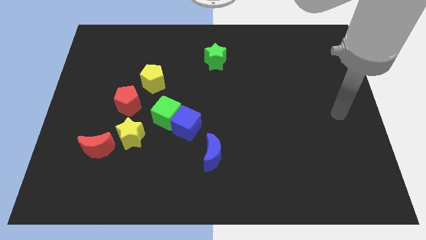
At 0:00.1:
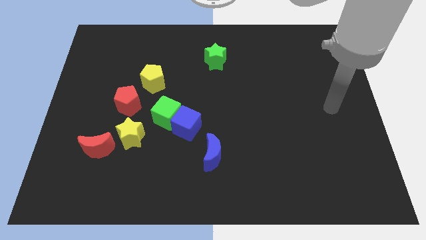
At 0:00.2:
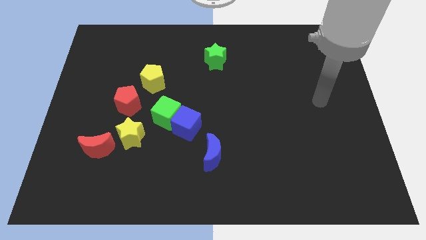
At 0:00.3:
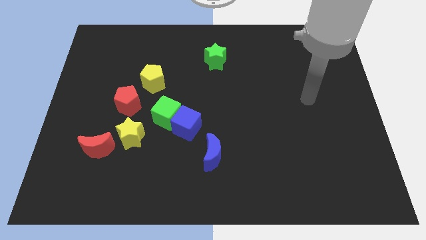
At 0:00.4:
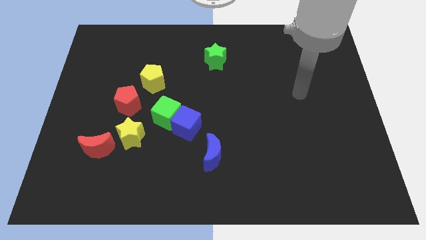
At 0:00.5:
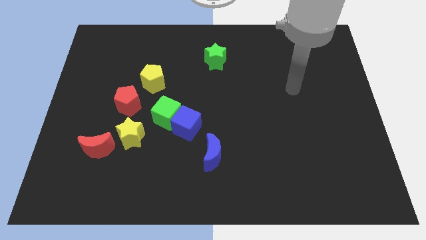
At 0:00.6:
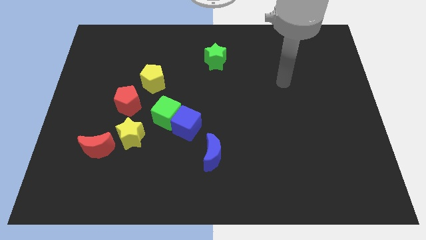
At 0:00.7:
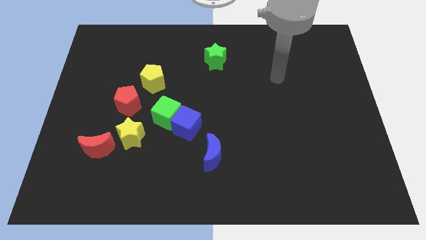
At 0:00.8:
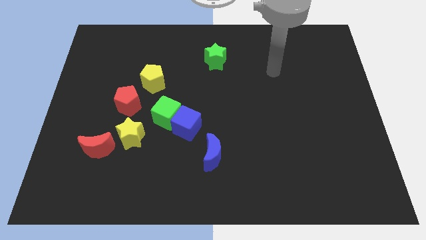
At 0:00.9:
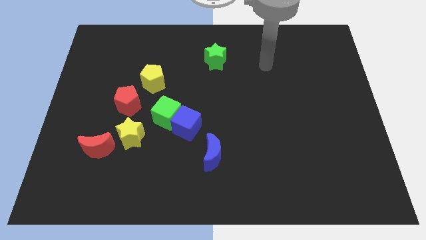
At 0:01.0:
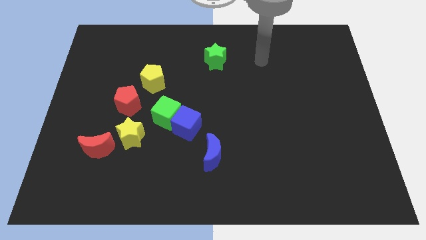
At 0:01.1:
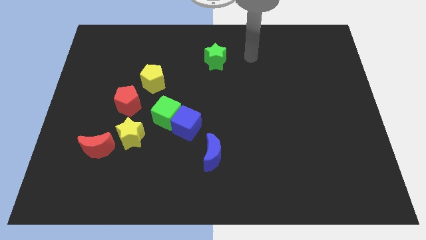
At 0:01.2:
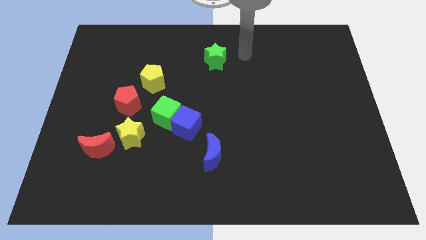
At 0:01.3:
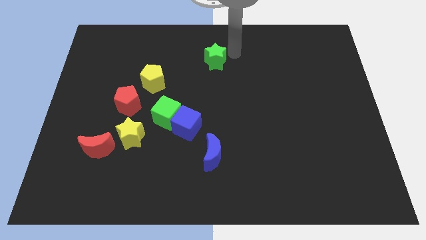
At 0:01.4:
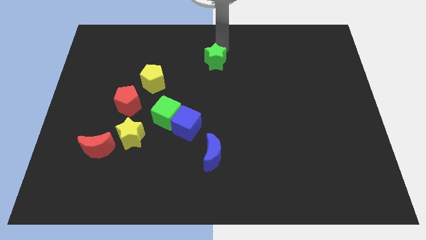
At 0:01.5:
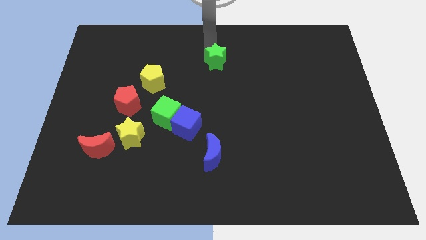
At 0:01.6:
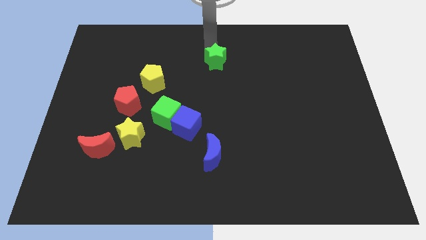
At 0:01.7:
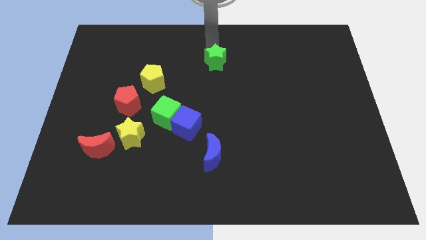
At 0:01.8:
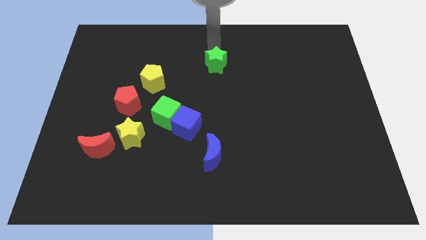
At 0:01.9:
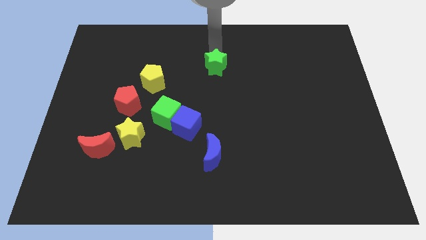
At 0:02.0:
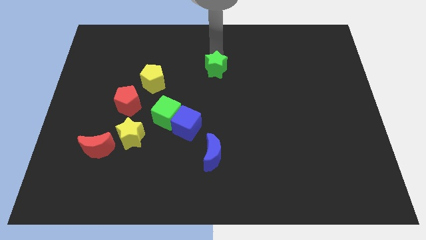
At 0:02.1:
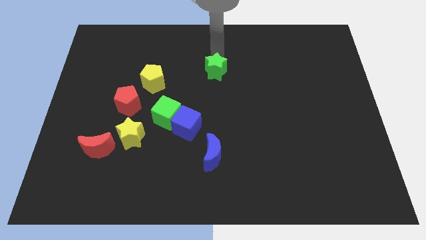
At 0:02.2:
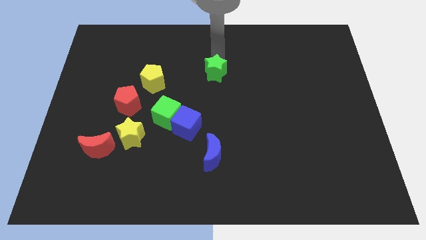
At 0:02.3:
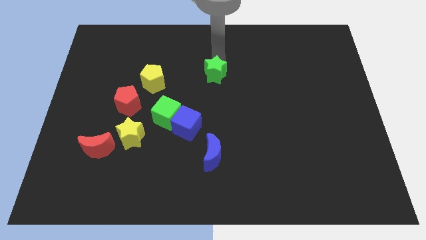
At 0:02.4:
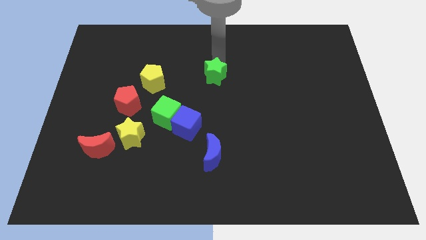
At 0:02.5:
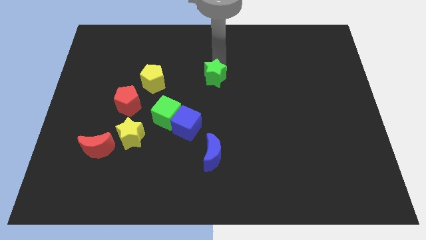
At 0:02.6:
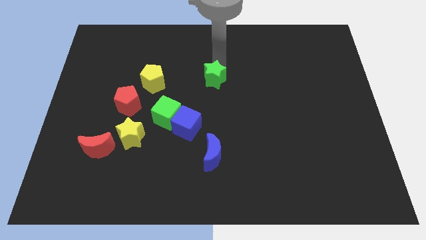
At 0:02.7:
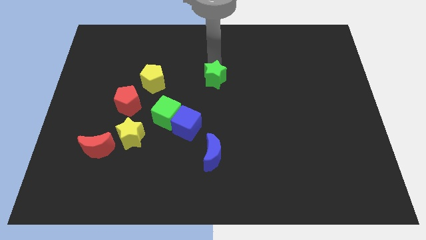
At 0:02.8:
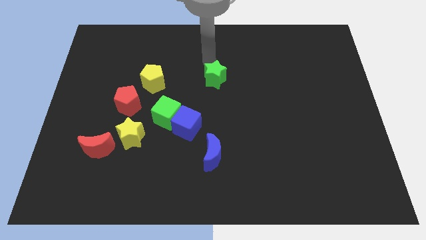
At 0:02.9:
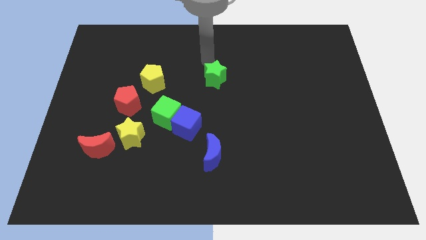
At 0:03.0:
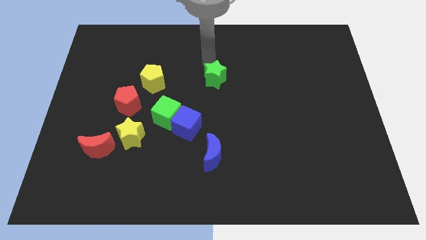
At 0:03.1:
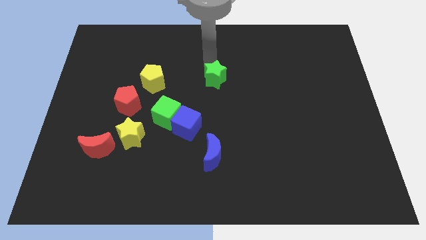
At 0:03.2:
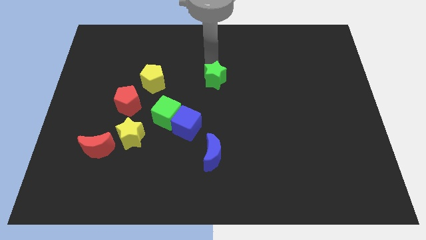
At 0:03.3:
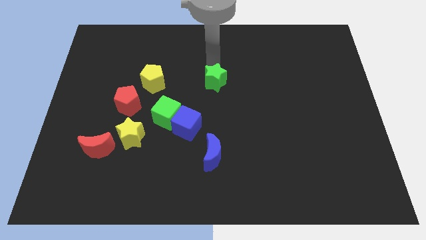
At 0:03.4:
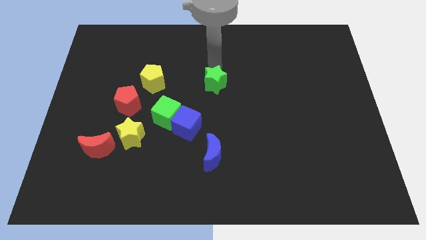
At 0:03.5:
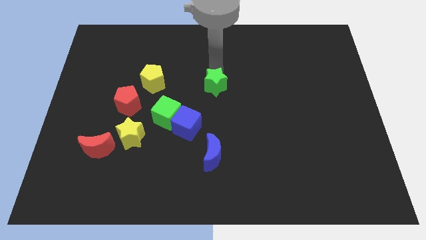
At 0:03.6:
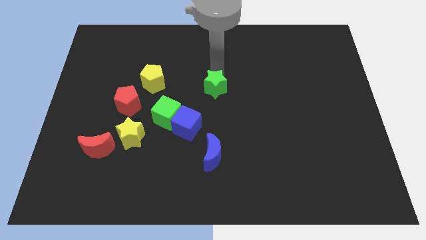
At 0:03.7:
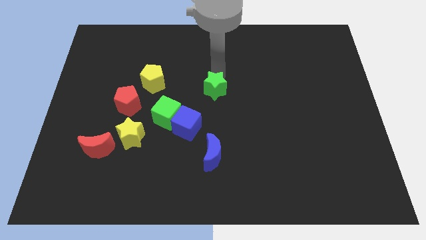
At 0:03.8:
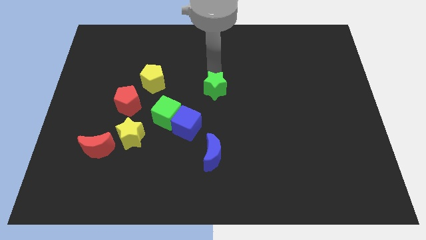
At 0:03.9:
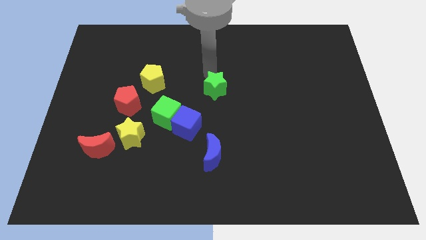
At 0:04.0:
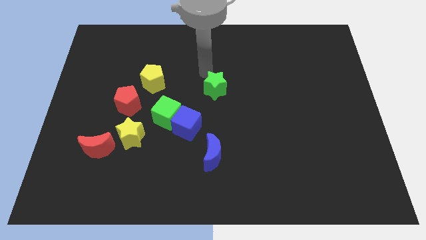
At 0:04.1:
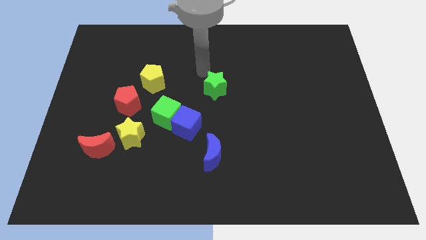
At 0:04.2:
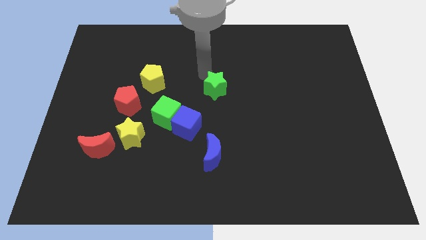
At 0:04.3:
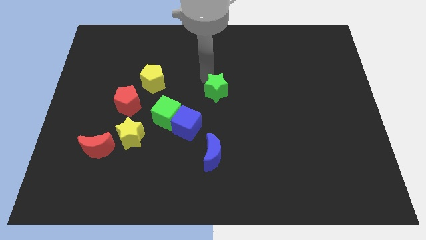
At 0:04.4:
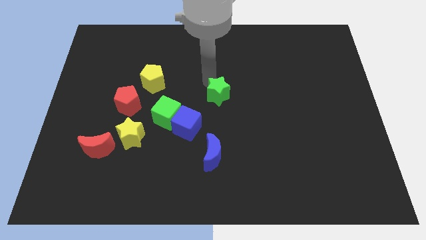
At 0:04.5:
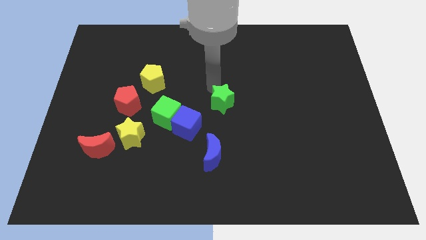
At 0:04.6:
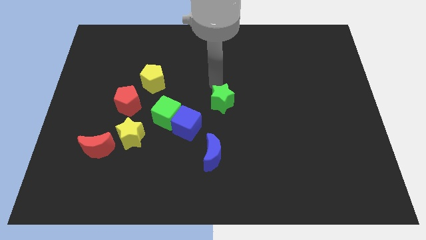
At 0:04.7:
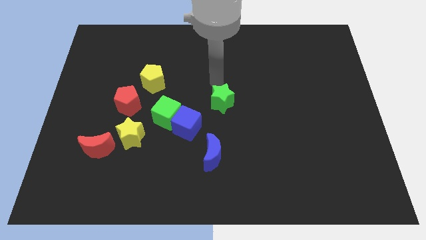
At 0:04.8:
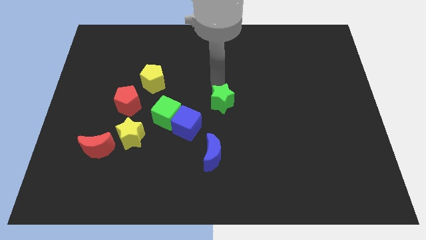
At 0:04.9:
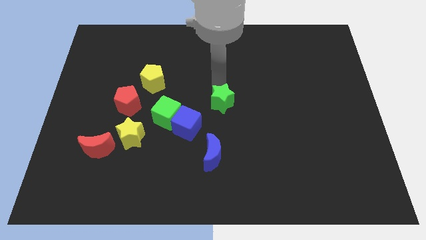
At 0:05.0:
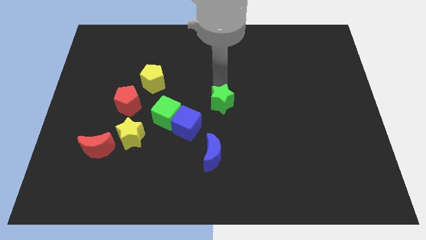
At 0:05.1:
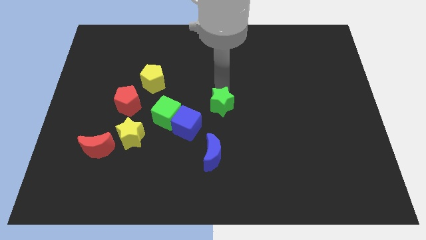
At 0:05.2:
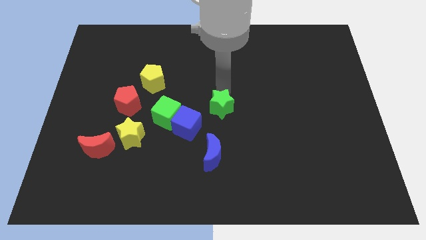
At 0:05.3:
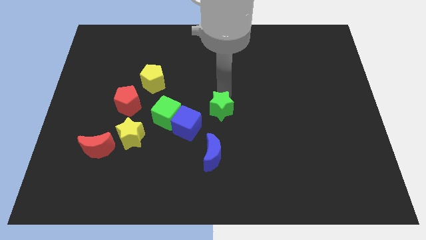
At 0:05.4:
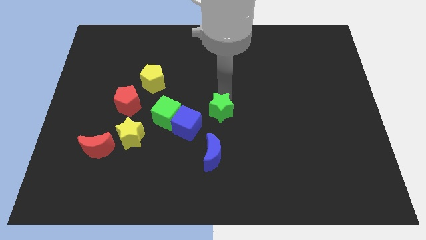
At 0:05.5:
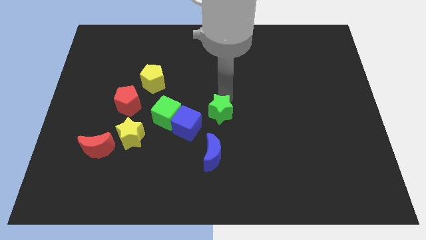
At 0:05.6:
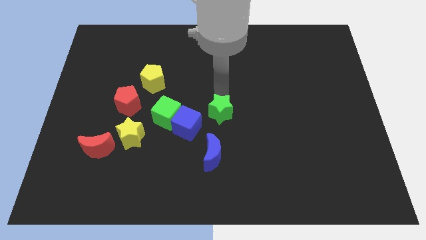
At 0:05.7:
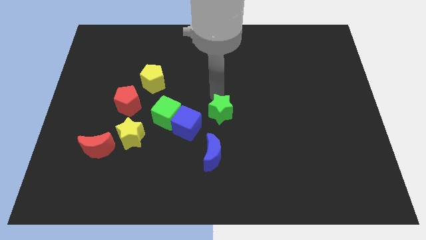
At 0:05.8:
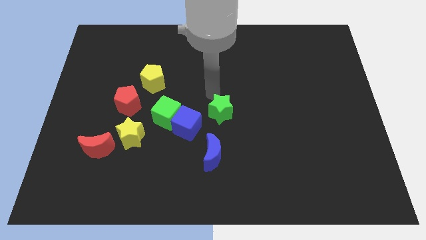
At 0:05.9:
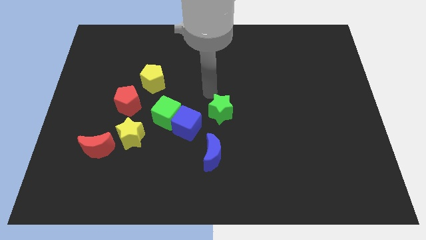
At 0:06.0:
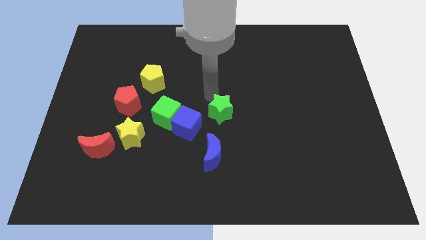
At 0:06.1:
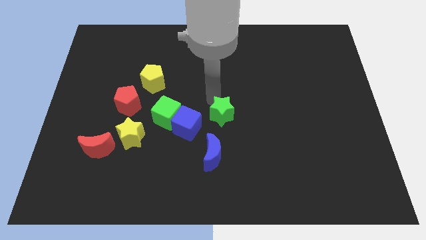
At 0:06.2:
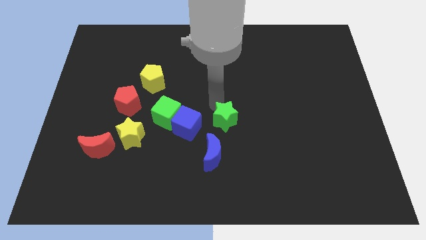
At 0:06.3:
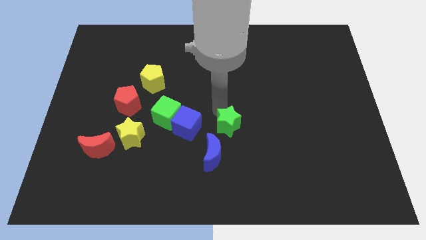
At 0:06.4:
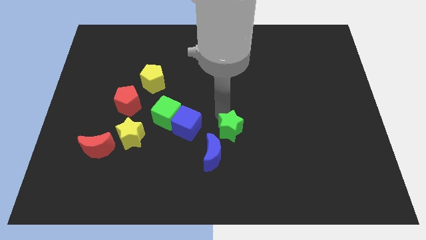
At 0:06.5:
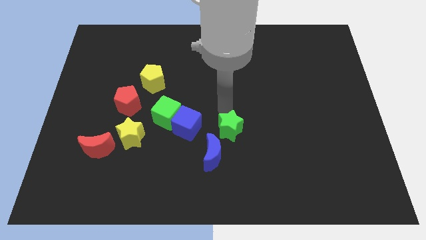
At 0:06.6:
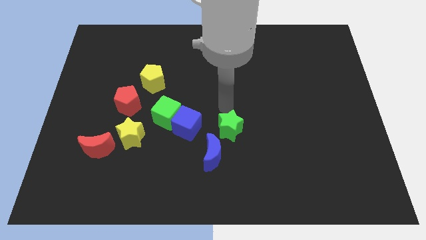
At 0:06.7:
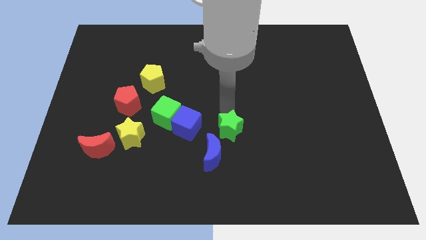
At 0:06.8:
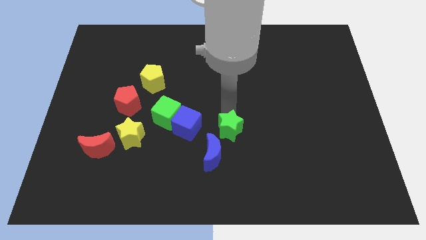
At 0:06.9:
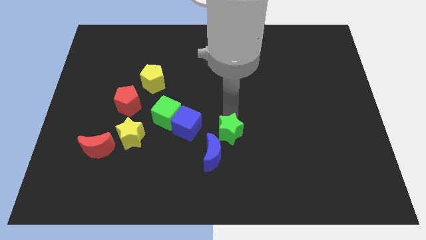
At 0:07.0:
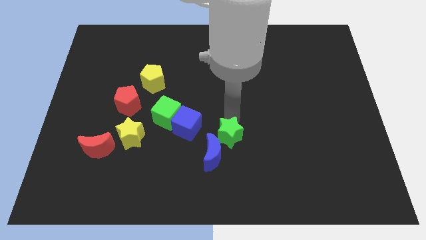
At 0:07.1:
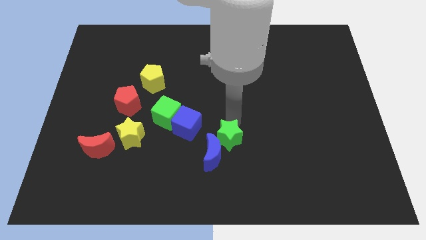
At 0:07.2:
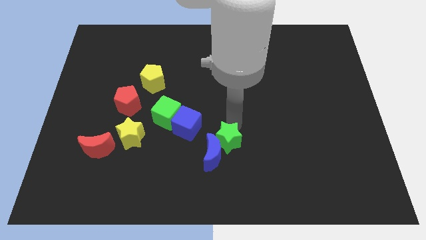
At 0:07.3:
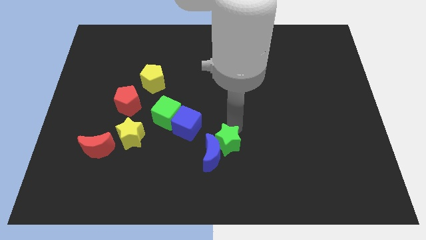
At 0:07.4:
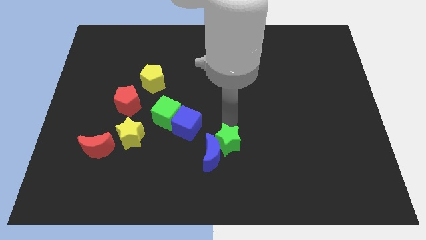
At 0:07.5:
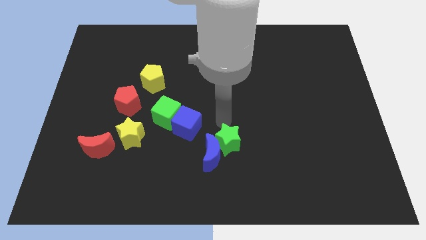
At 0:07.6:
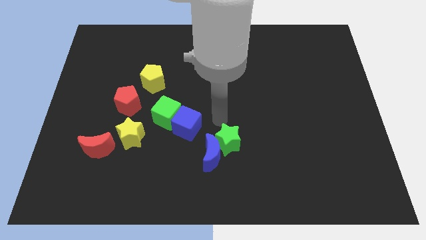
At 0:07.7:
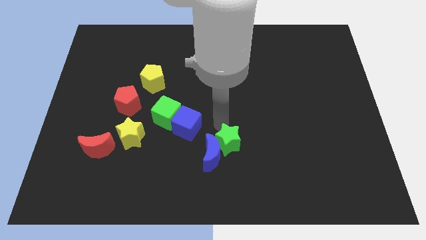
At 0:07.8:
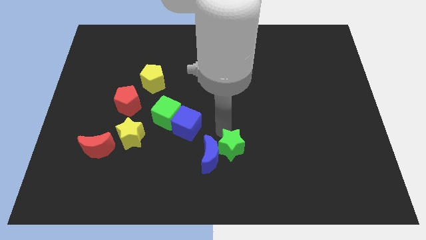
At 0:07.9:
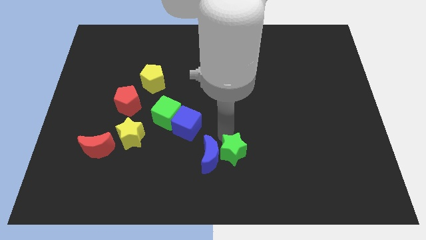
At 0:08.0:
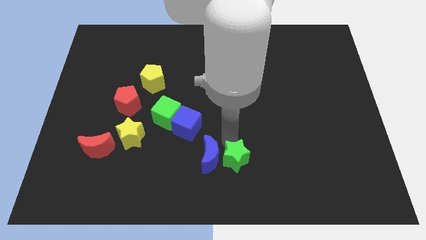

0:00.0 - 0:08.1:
push the green star to the bottom

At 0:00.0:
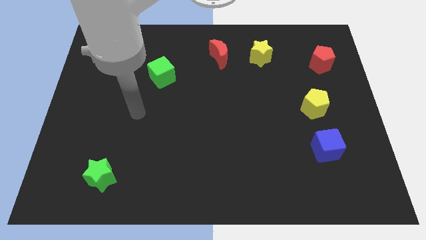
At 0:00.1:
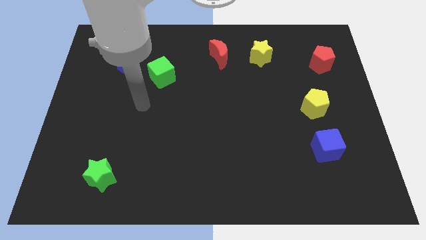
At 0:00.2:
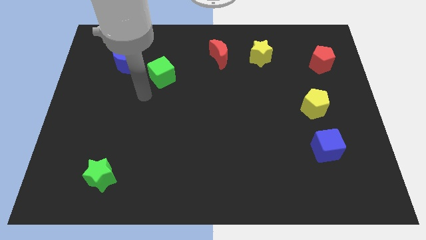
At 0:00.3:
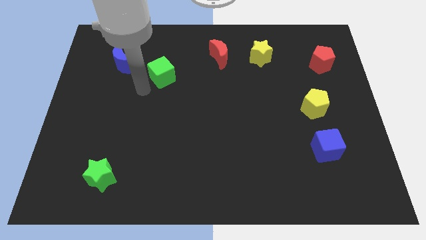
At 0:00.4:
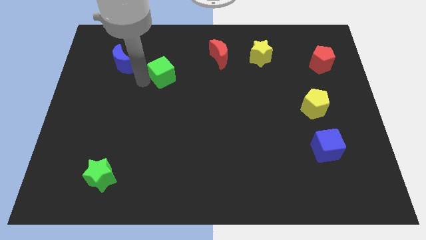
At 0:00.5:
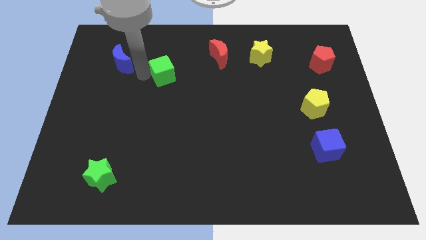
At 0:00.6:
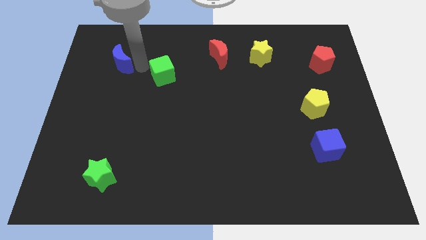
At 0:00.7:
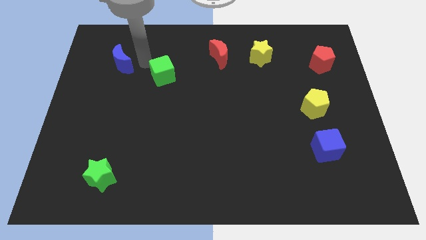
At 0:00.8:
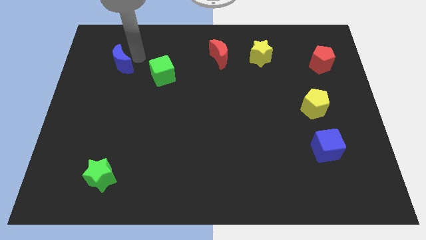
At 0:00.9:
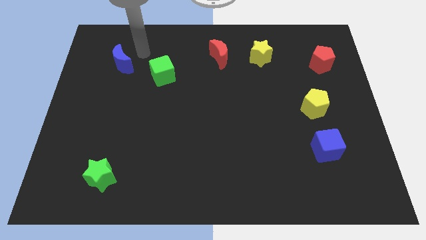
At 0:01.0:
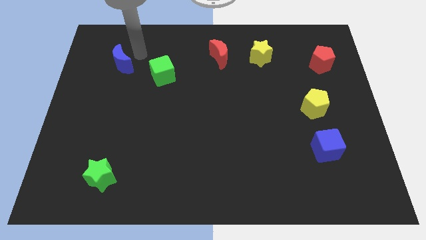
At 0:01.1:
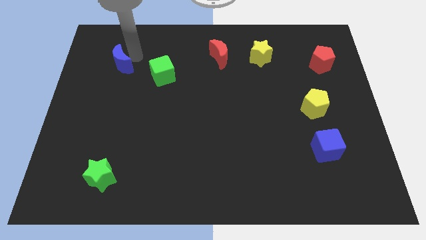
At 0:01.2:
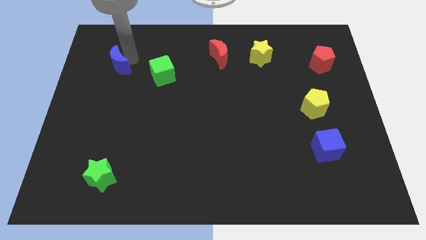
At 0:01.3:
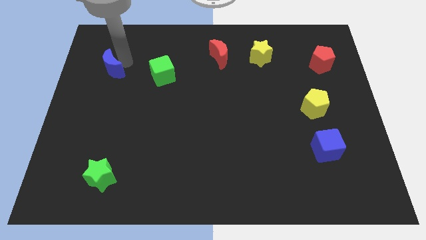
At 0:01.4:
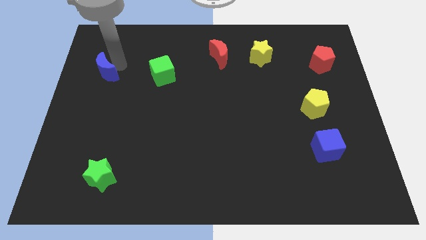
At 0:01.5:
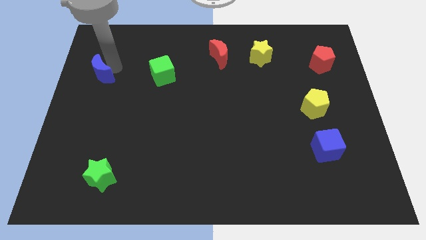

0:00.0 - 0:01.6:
slide the blue moon to the left side
